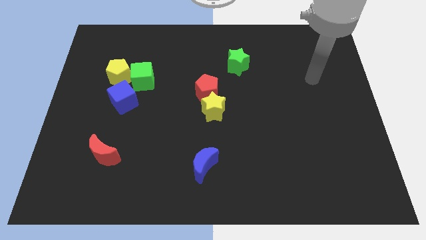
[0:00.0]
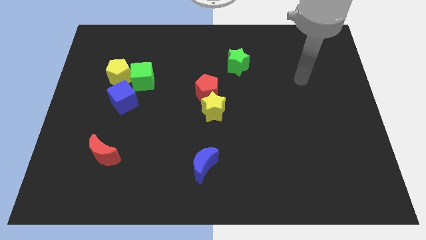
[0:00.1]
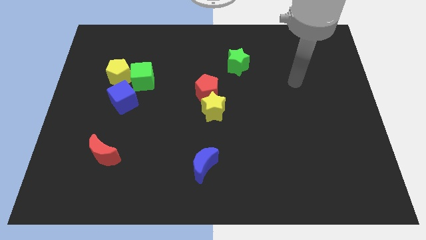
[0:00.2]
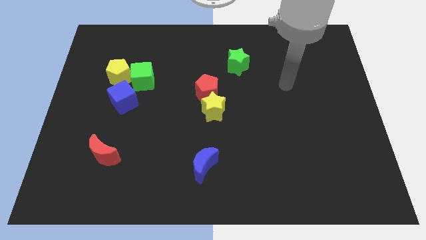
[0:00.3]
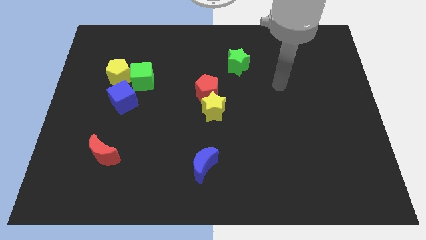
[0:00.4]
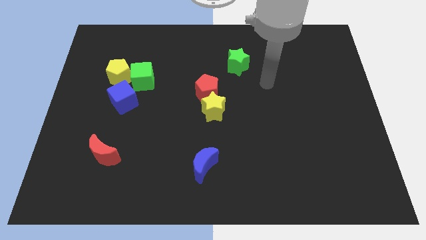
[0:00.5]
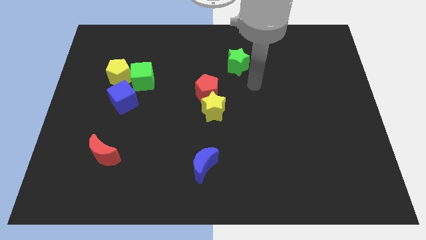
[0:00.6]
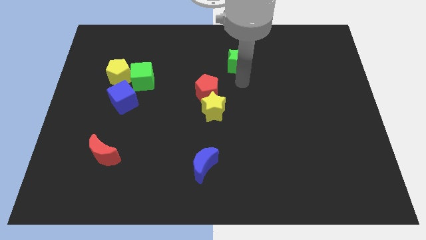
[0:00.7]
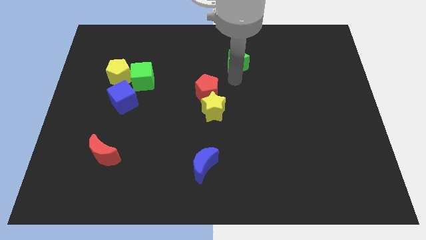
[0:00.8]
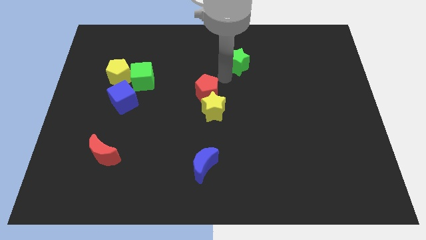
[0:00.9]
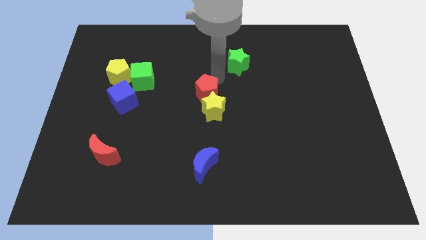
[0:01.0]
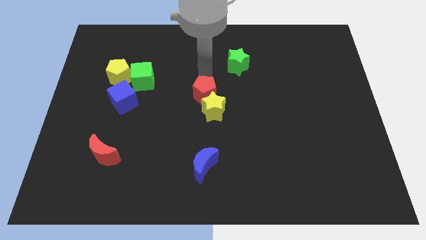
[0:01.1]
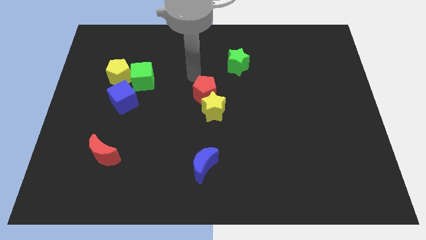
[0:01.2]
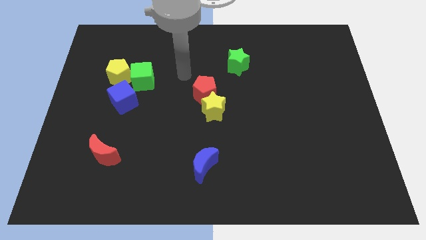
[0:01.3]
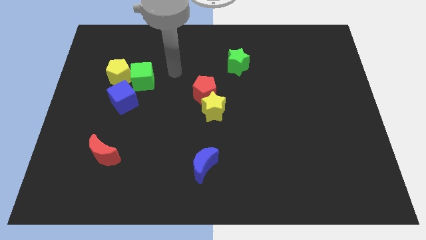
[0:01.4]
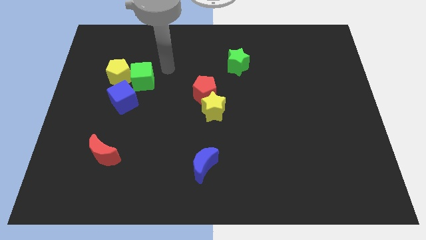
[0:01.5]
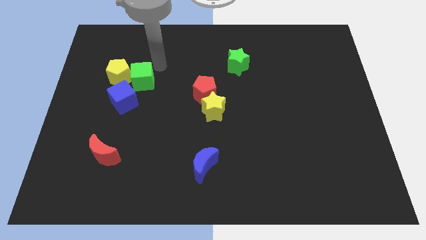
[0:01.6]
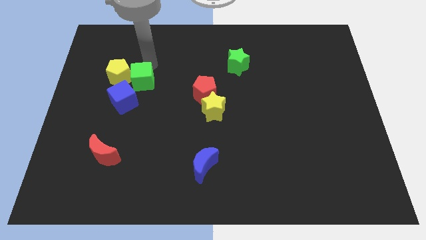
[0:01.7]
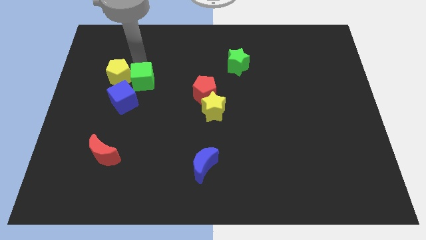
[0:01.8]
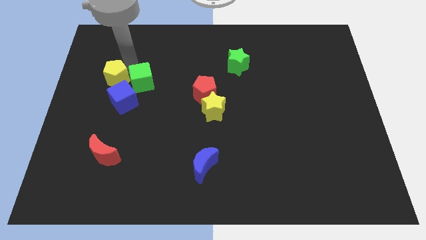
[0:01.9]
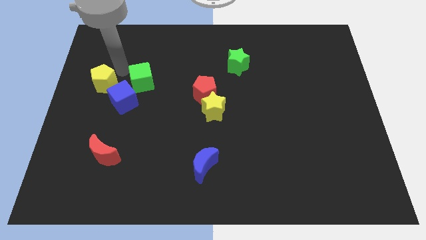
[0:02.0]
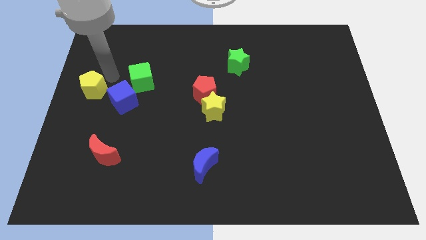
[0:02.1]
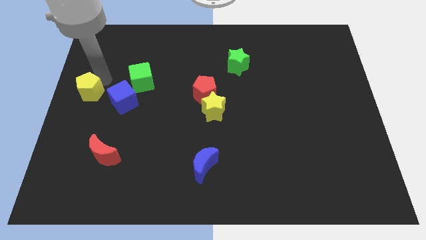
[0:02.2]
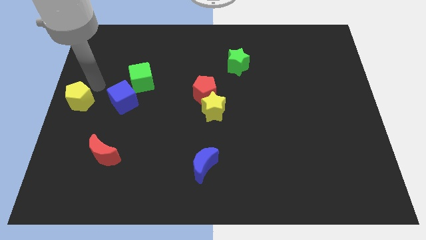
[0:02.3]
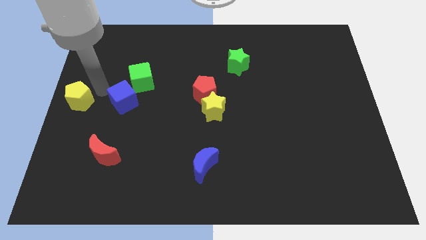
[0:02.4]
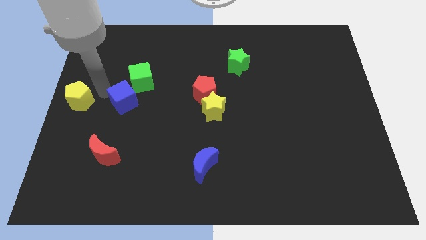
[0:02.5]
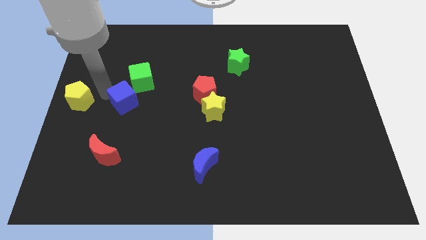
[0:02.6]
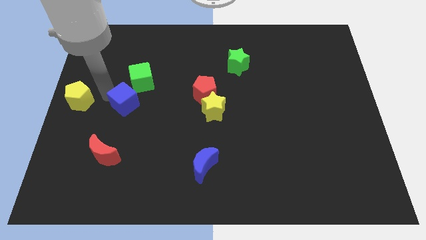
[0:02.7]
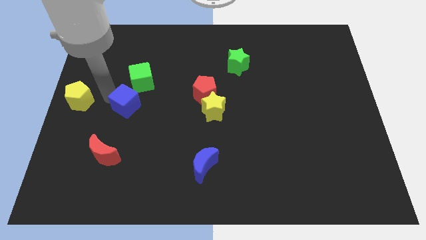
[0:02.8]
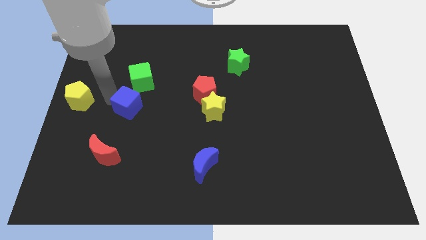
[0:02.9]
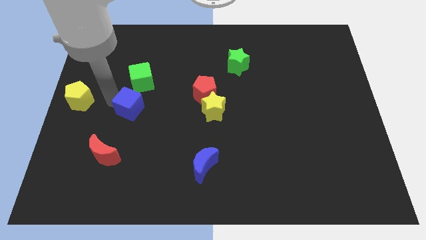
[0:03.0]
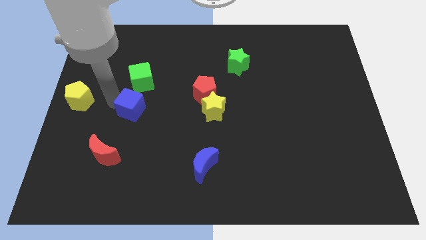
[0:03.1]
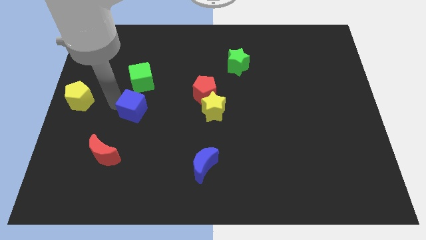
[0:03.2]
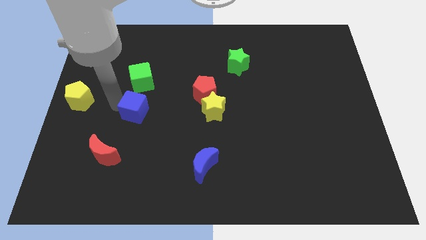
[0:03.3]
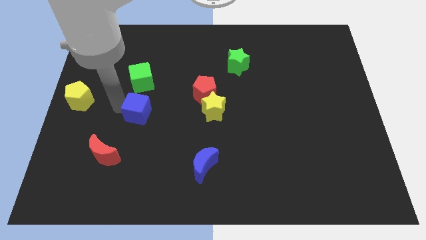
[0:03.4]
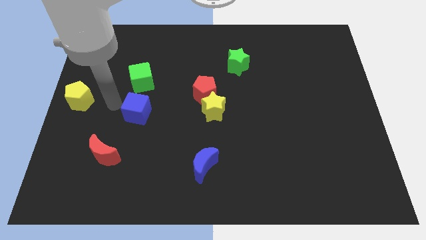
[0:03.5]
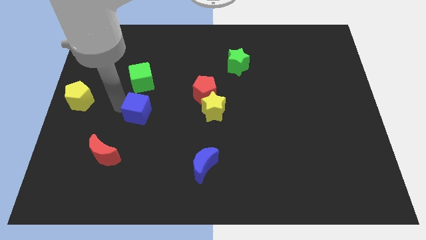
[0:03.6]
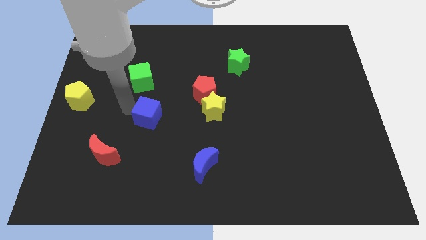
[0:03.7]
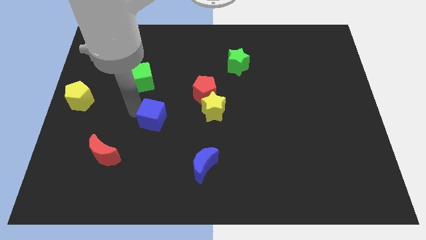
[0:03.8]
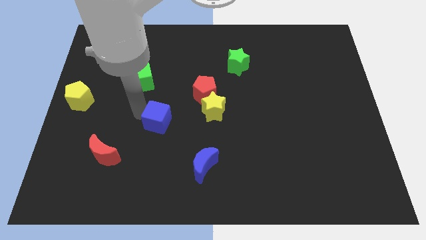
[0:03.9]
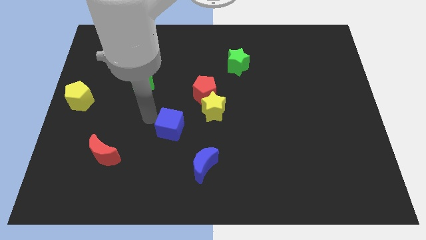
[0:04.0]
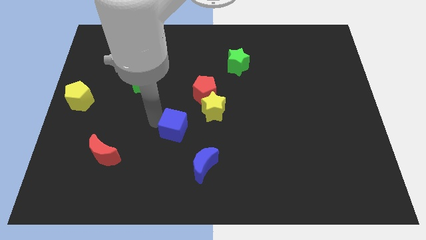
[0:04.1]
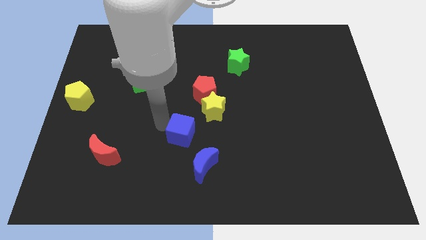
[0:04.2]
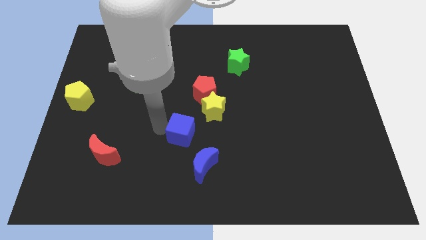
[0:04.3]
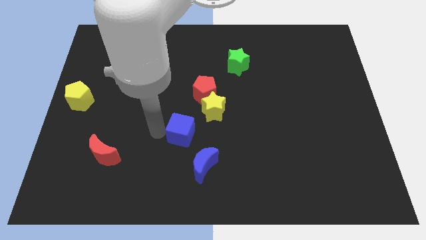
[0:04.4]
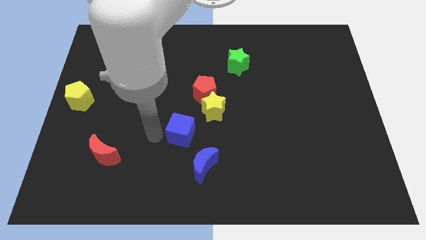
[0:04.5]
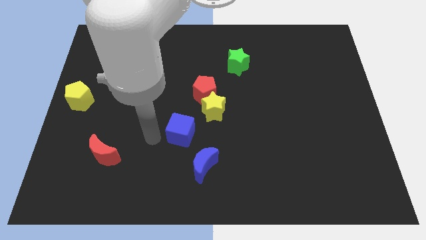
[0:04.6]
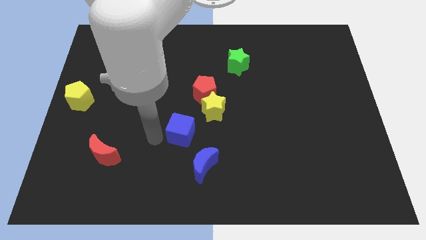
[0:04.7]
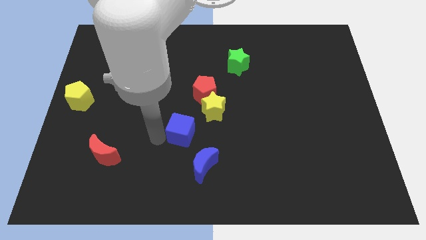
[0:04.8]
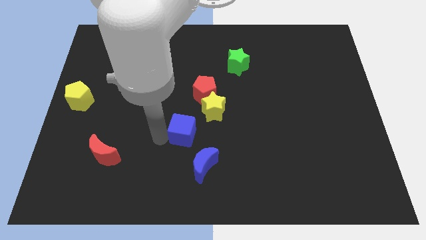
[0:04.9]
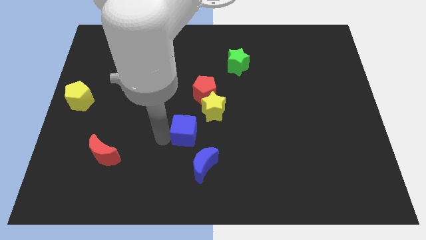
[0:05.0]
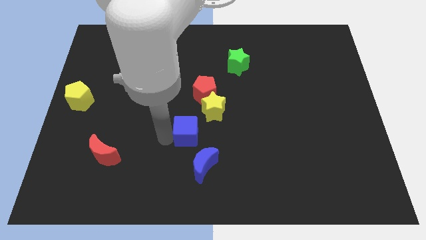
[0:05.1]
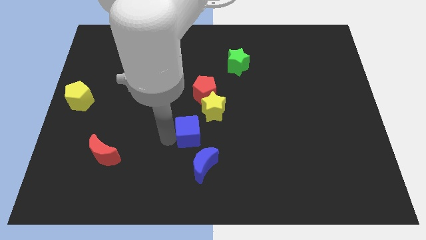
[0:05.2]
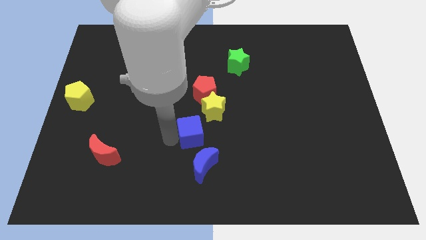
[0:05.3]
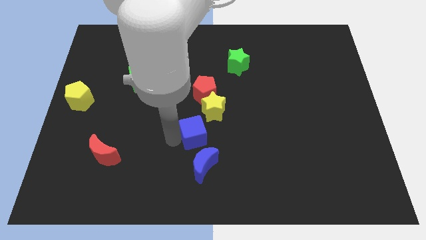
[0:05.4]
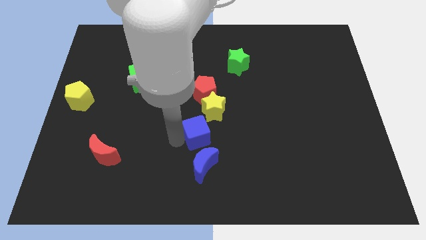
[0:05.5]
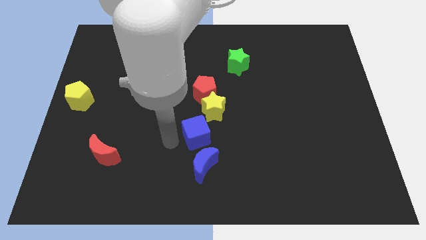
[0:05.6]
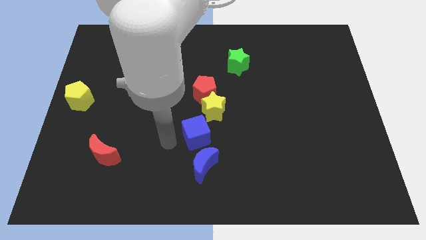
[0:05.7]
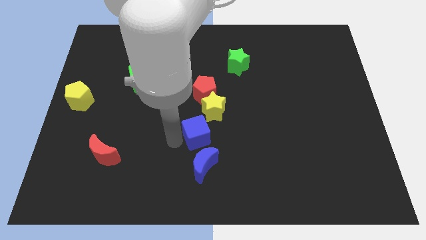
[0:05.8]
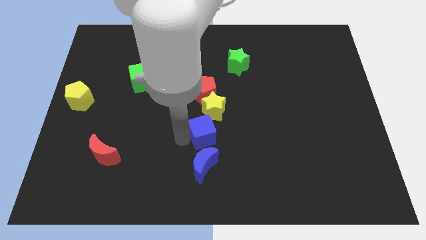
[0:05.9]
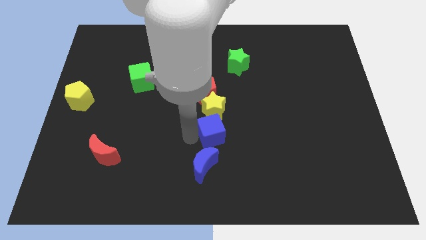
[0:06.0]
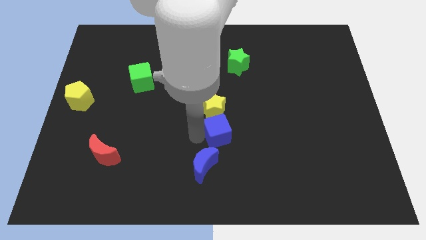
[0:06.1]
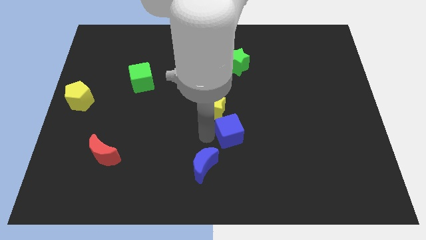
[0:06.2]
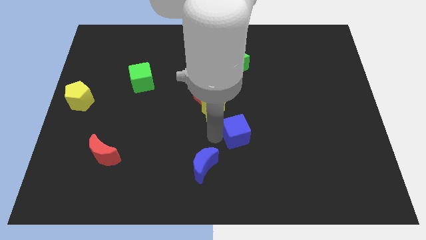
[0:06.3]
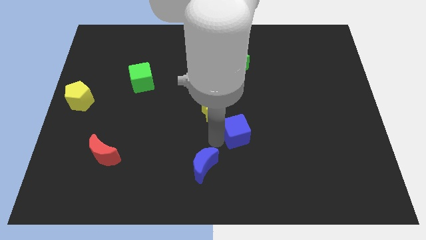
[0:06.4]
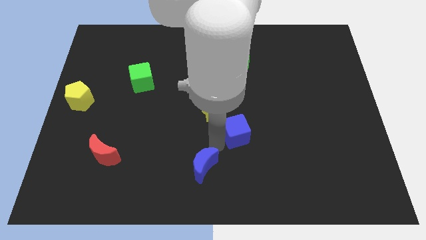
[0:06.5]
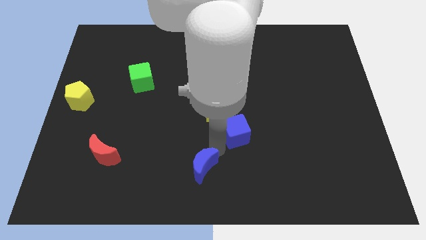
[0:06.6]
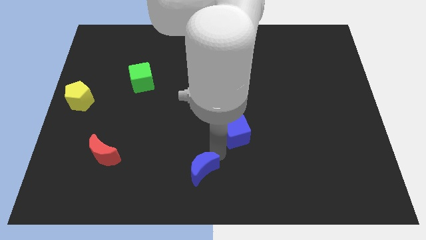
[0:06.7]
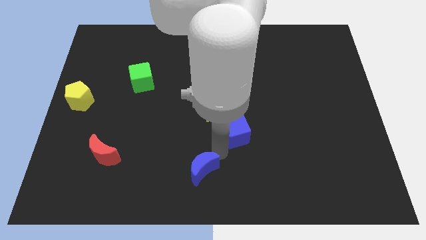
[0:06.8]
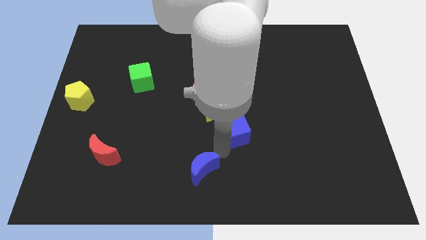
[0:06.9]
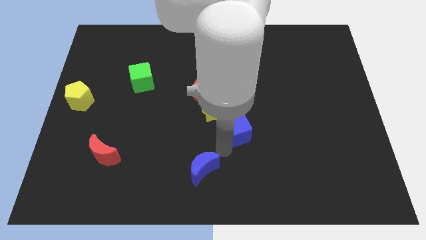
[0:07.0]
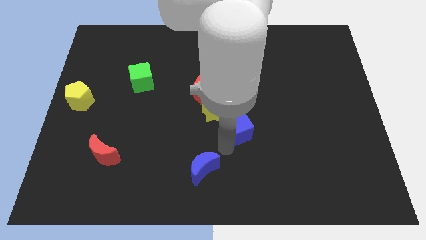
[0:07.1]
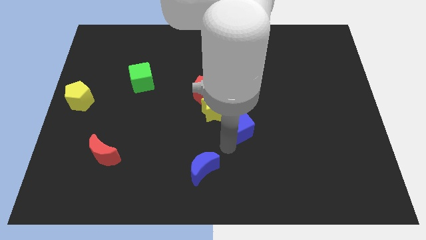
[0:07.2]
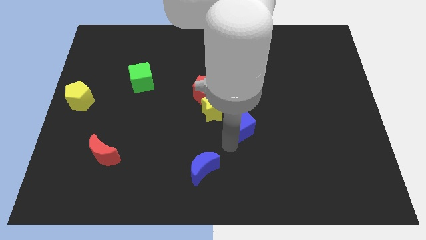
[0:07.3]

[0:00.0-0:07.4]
move the blue cube to the right of the yellow star
